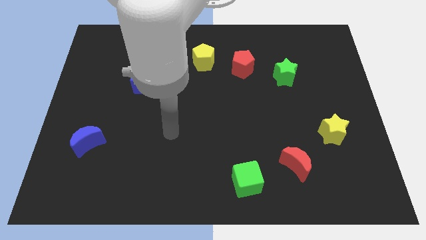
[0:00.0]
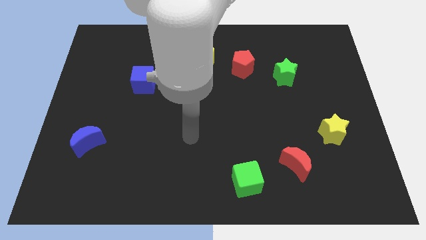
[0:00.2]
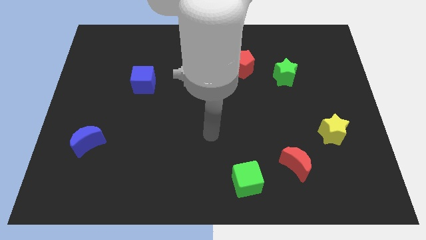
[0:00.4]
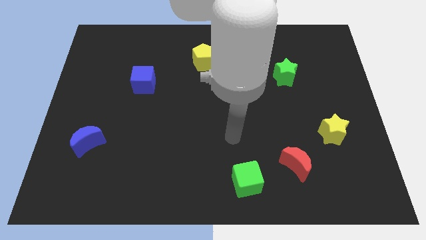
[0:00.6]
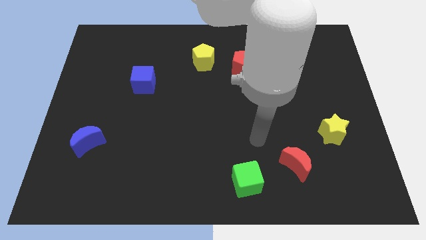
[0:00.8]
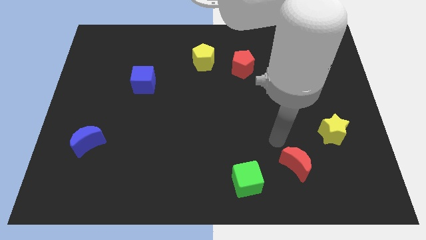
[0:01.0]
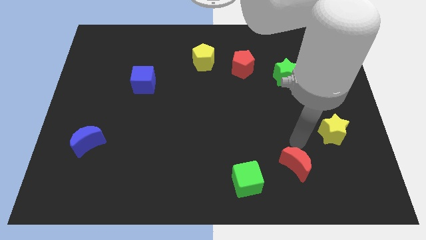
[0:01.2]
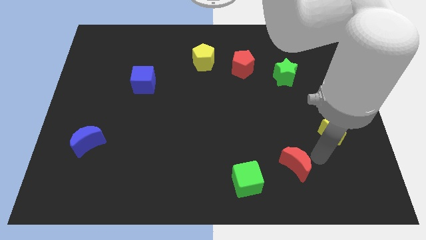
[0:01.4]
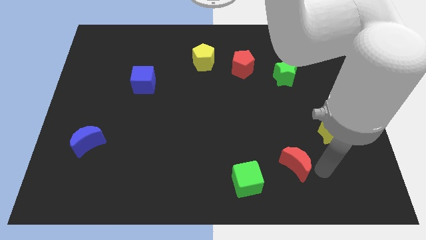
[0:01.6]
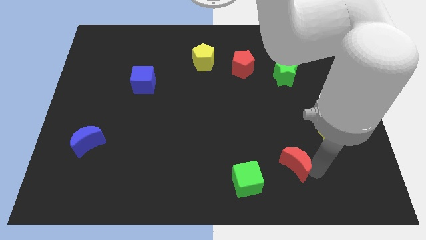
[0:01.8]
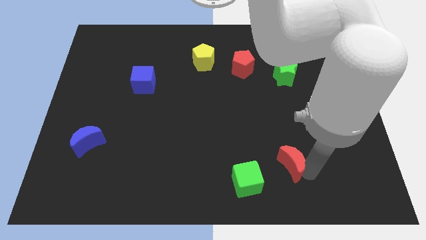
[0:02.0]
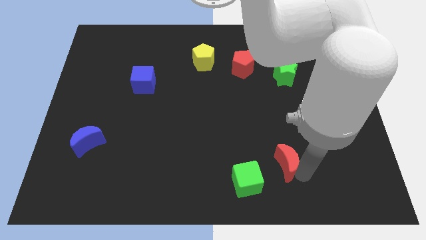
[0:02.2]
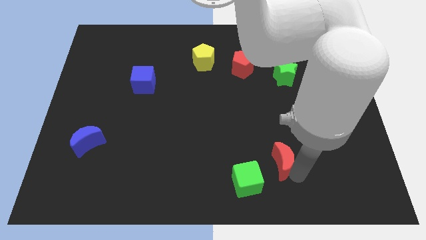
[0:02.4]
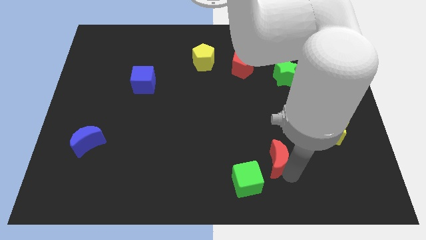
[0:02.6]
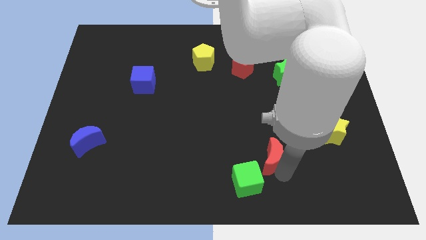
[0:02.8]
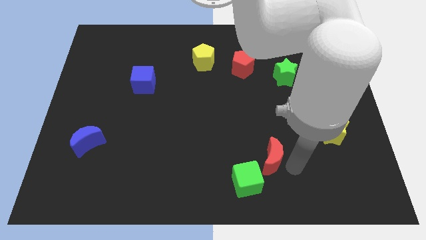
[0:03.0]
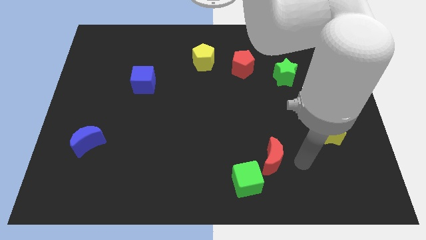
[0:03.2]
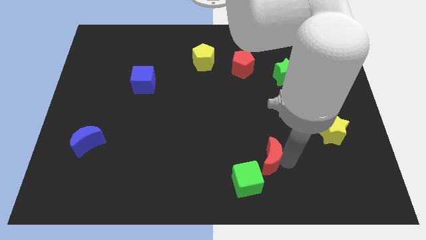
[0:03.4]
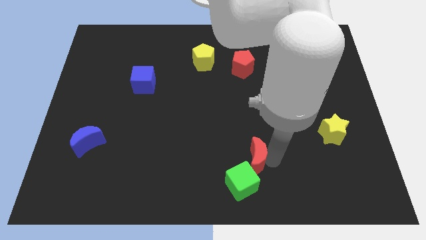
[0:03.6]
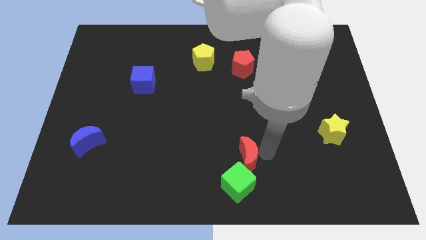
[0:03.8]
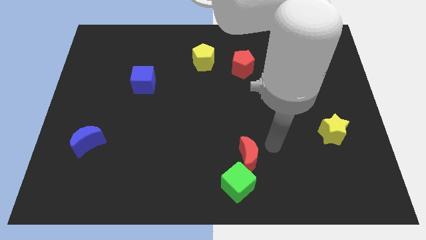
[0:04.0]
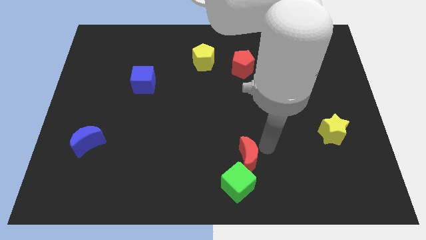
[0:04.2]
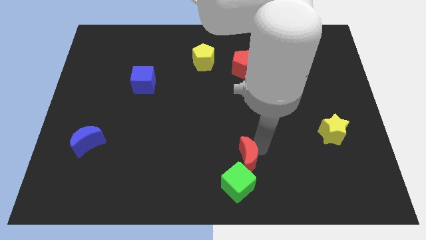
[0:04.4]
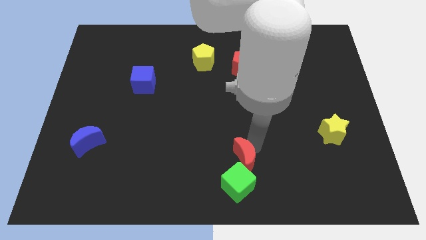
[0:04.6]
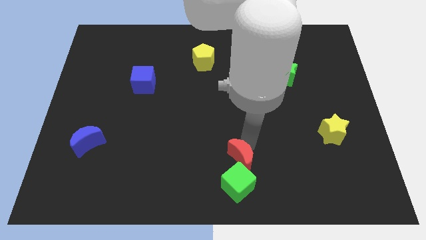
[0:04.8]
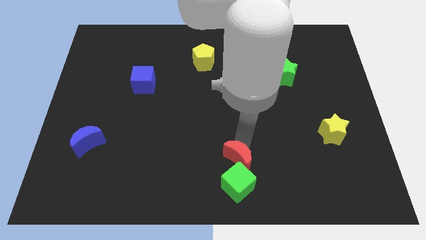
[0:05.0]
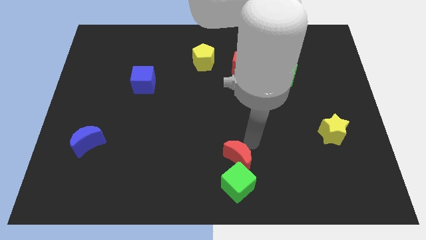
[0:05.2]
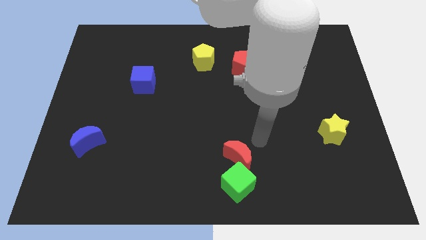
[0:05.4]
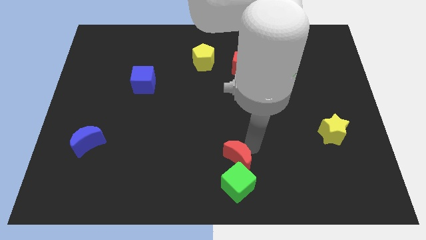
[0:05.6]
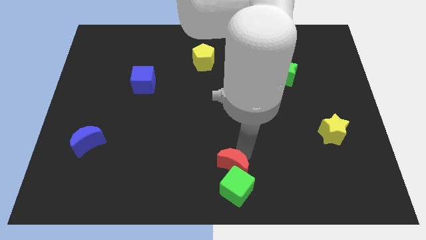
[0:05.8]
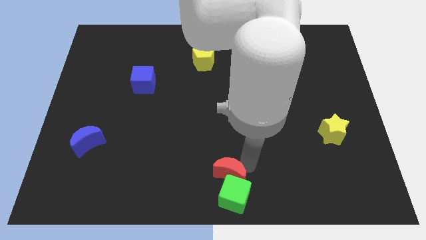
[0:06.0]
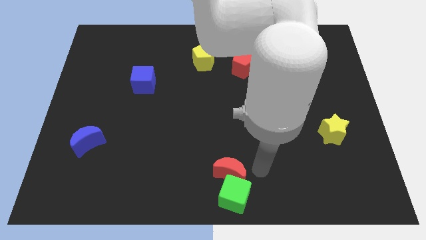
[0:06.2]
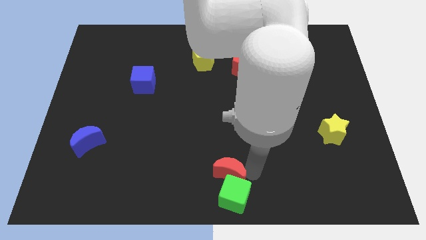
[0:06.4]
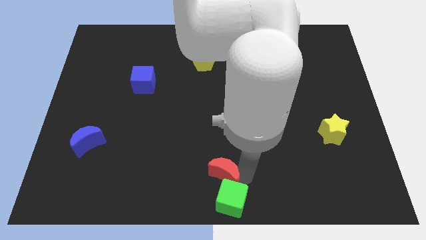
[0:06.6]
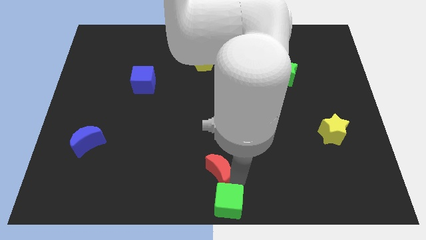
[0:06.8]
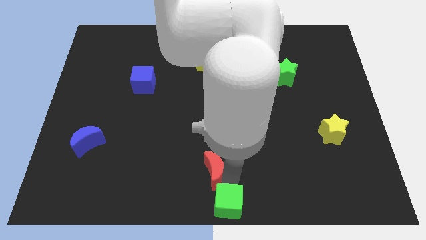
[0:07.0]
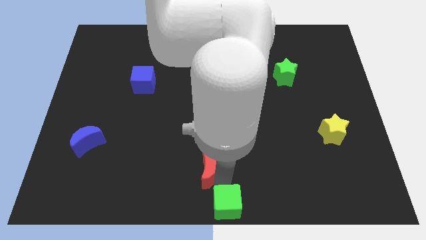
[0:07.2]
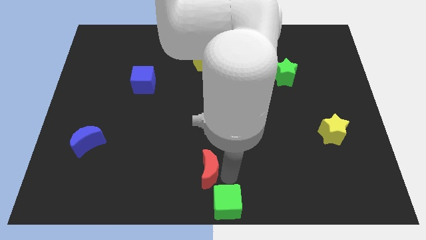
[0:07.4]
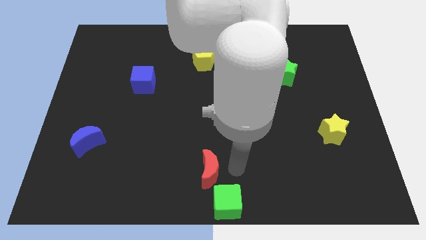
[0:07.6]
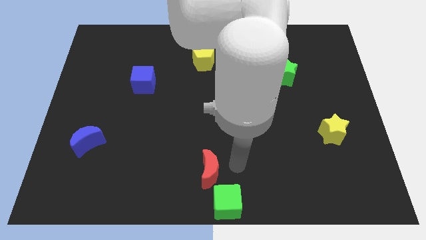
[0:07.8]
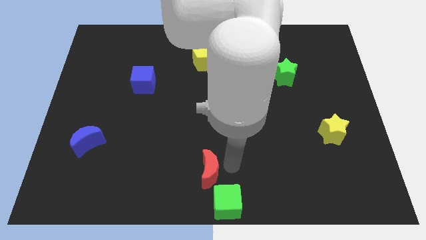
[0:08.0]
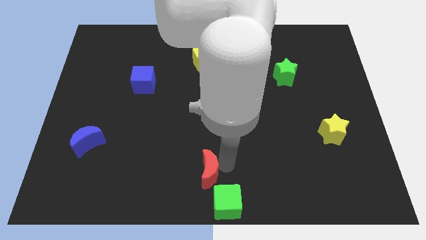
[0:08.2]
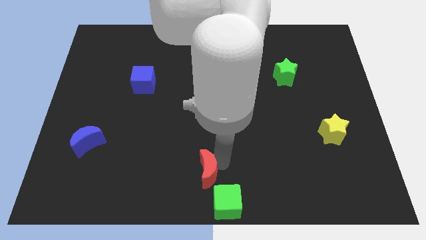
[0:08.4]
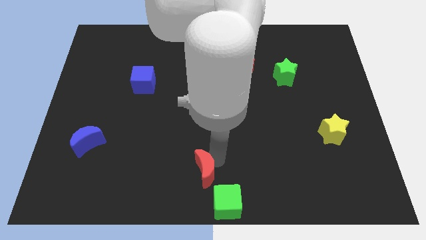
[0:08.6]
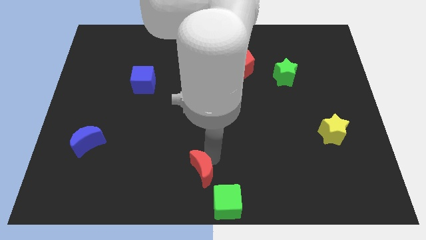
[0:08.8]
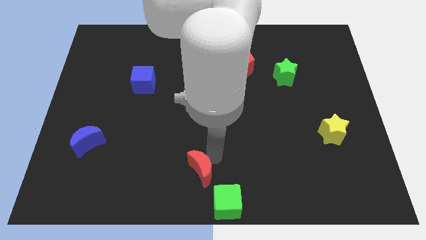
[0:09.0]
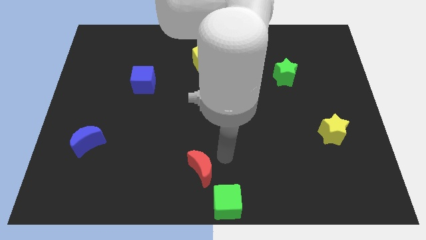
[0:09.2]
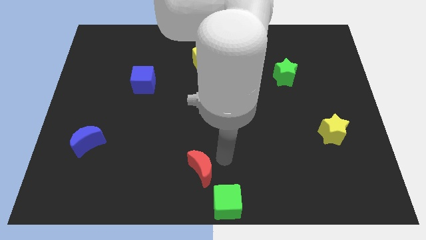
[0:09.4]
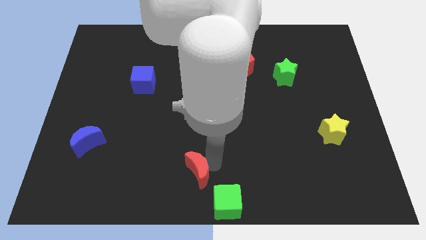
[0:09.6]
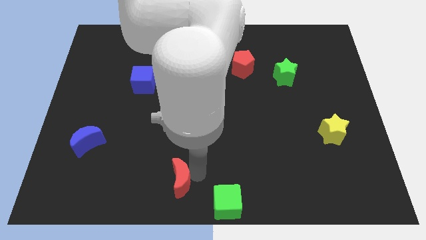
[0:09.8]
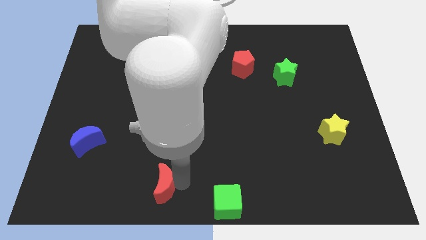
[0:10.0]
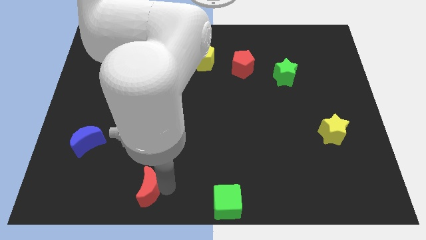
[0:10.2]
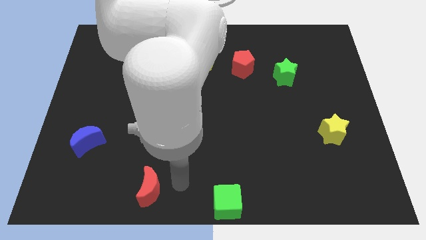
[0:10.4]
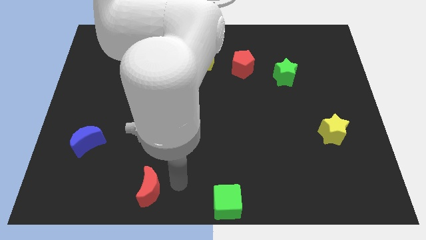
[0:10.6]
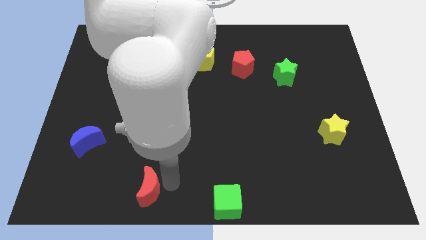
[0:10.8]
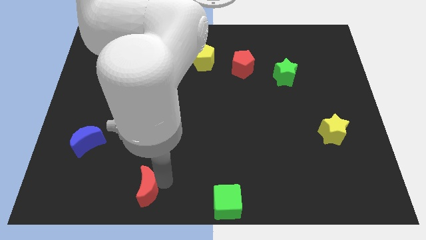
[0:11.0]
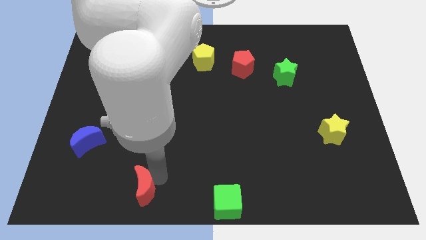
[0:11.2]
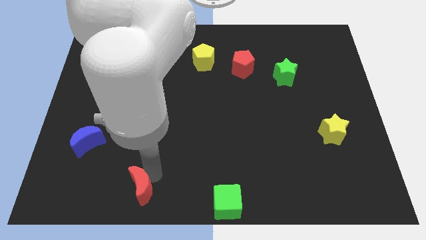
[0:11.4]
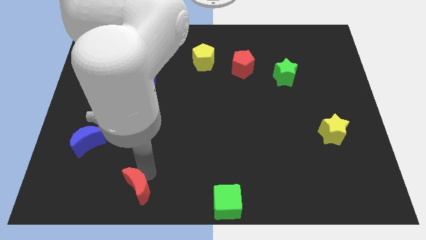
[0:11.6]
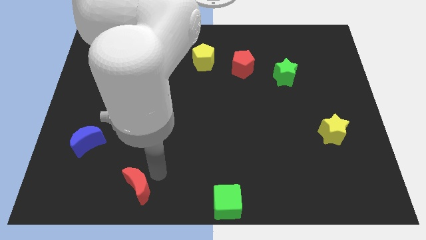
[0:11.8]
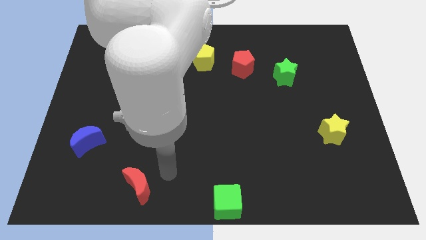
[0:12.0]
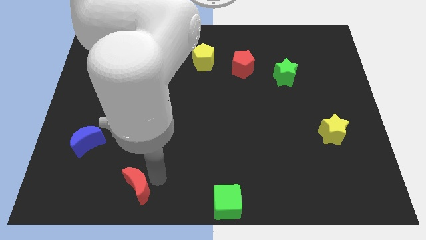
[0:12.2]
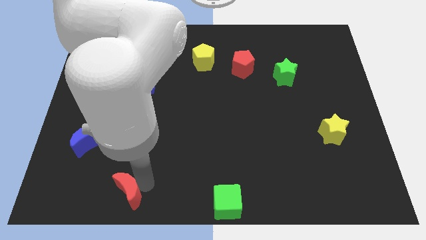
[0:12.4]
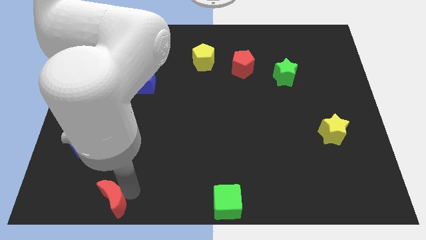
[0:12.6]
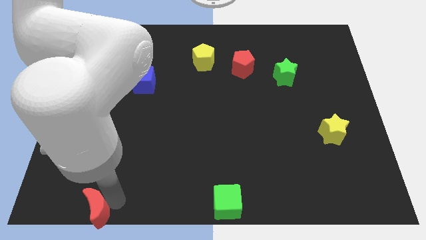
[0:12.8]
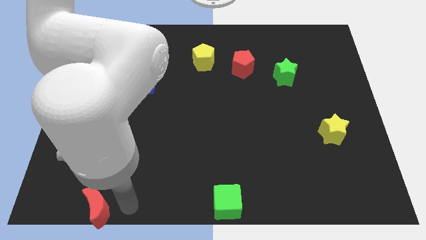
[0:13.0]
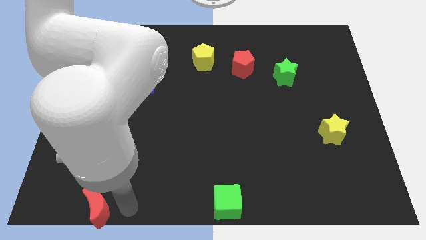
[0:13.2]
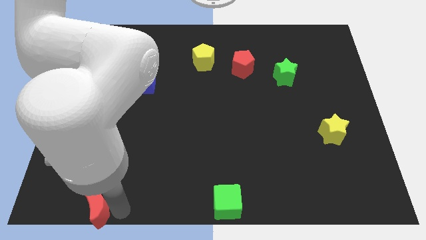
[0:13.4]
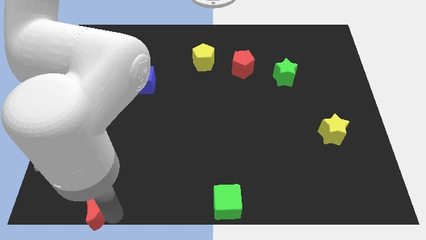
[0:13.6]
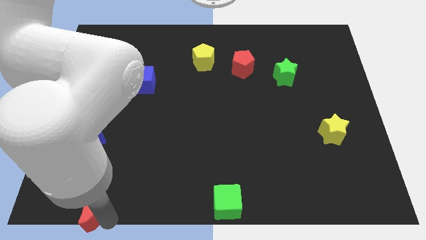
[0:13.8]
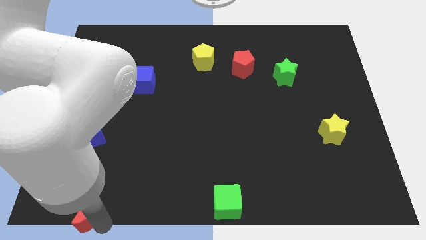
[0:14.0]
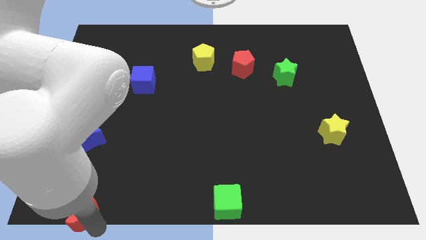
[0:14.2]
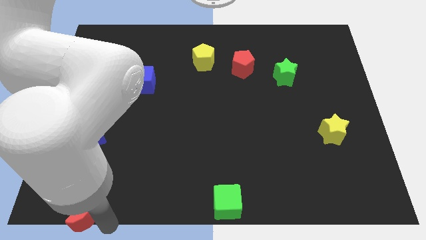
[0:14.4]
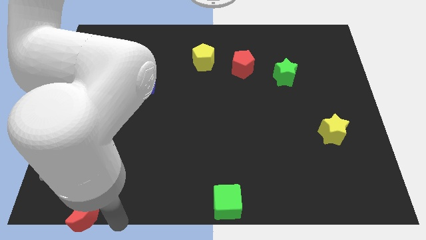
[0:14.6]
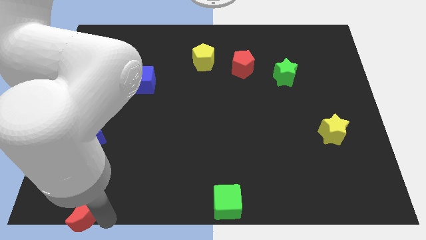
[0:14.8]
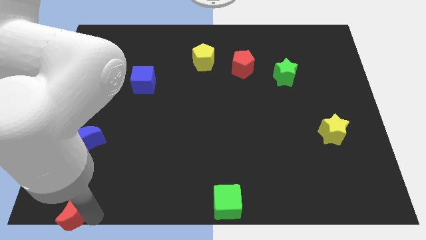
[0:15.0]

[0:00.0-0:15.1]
move the red moon to the bottom left corner
